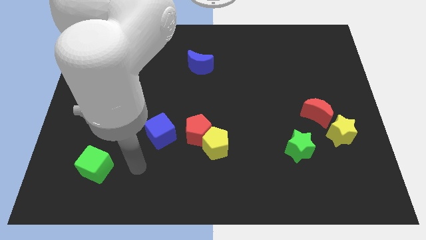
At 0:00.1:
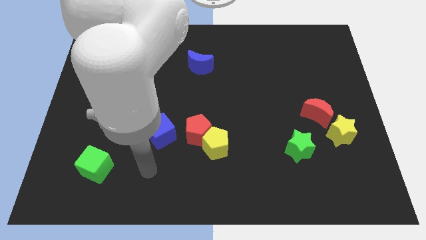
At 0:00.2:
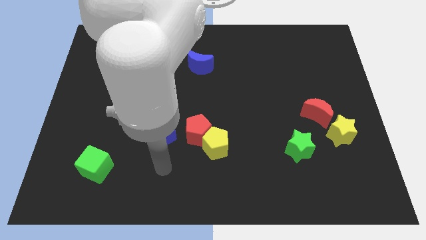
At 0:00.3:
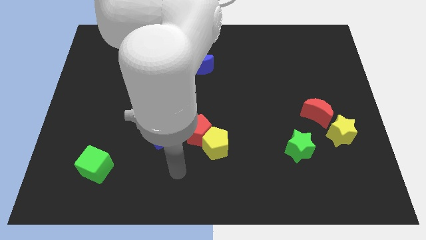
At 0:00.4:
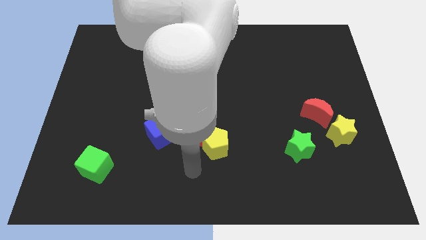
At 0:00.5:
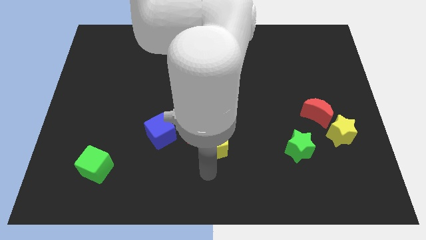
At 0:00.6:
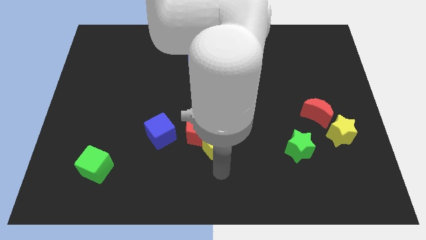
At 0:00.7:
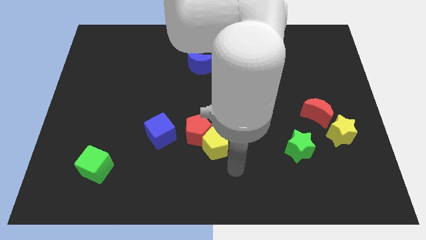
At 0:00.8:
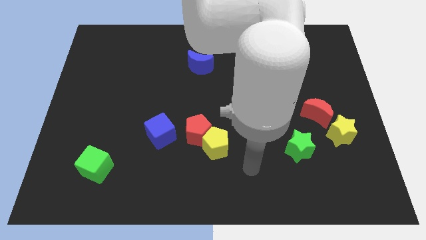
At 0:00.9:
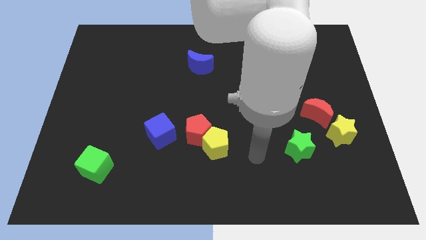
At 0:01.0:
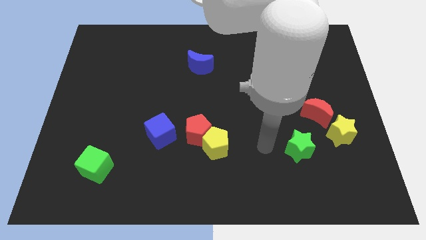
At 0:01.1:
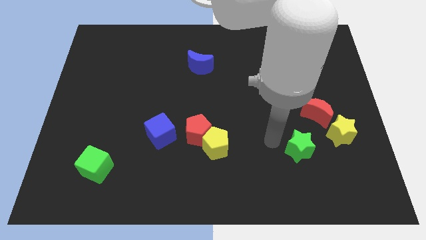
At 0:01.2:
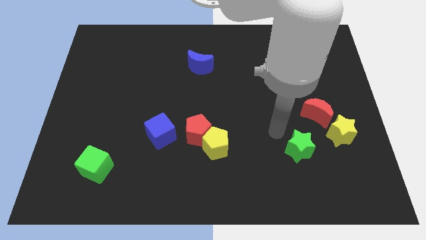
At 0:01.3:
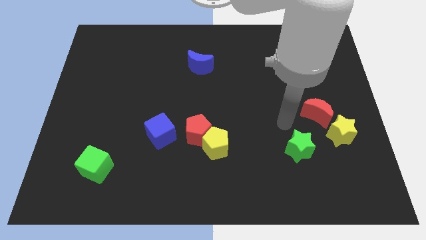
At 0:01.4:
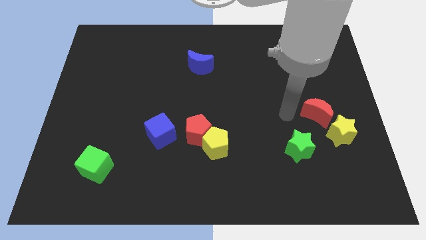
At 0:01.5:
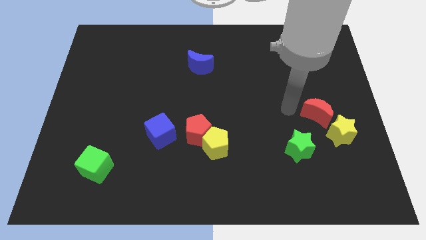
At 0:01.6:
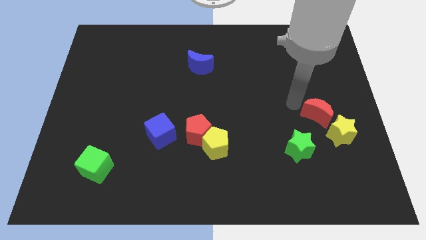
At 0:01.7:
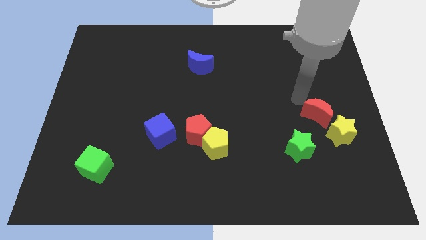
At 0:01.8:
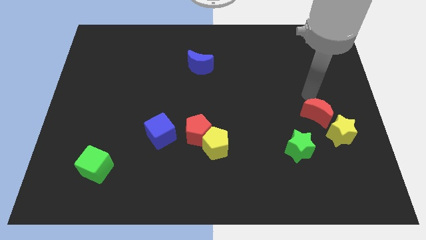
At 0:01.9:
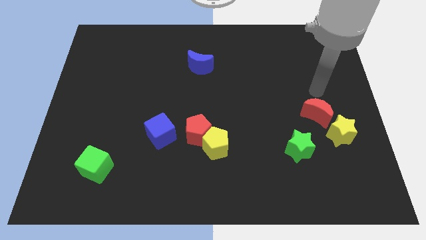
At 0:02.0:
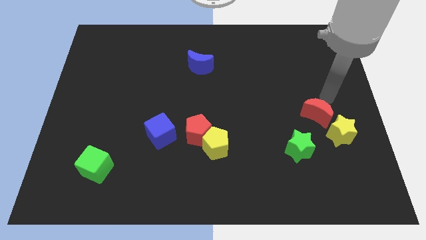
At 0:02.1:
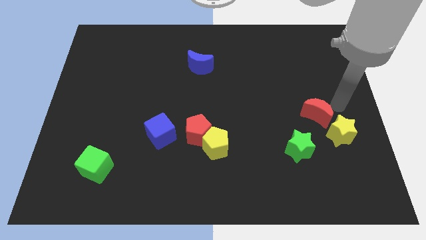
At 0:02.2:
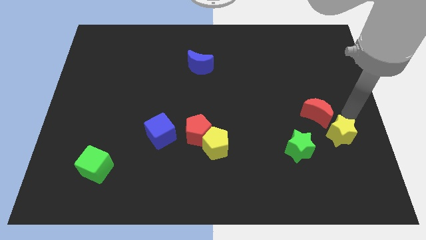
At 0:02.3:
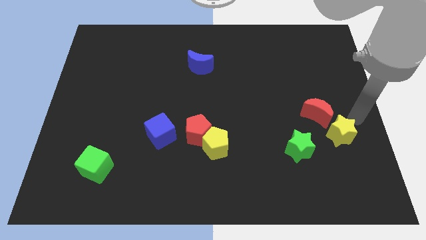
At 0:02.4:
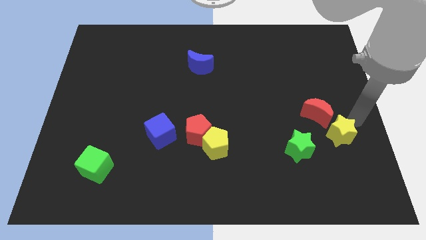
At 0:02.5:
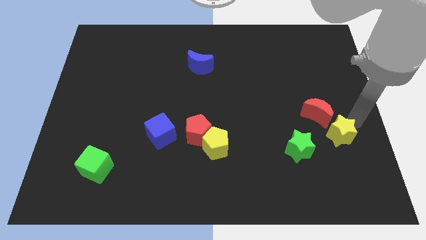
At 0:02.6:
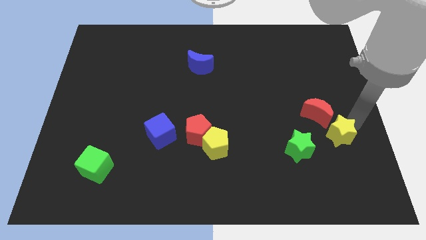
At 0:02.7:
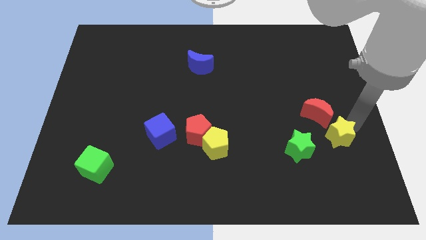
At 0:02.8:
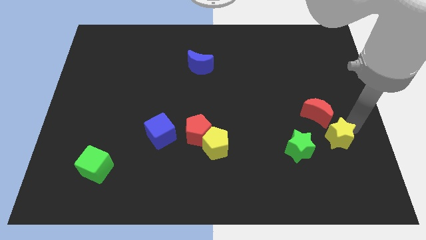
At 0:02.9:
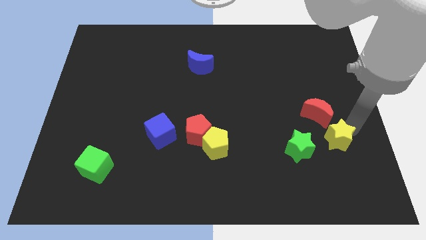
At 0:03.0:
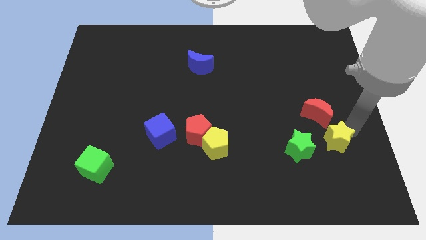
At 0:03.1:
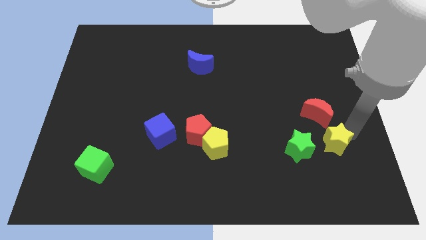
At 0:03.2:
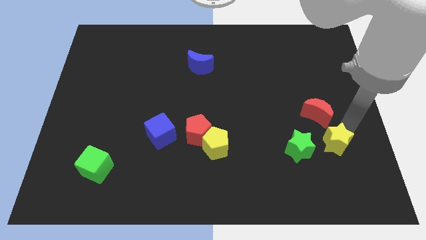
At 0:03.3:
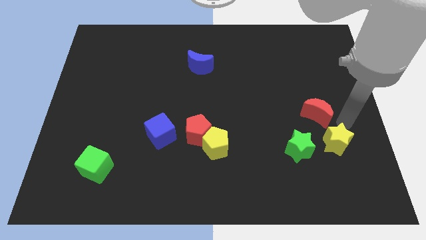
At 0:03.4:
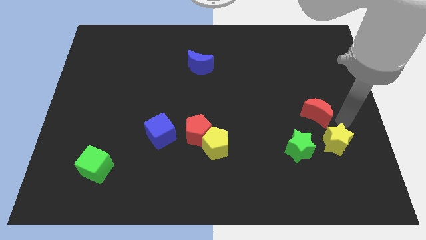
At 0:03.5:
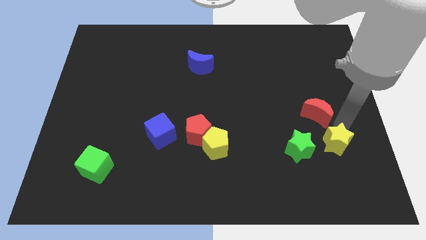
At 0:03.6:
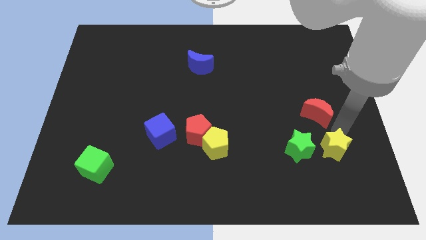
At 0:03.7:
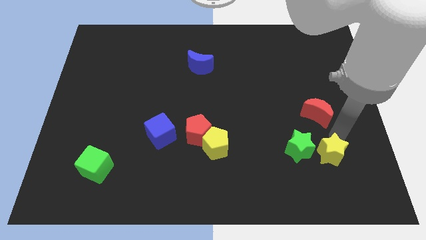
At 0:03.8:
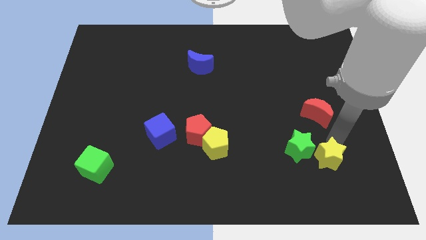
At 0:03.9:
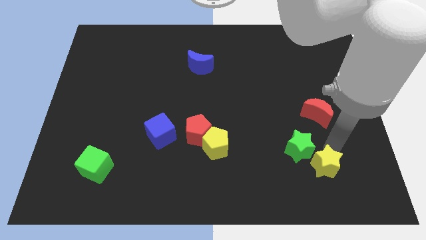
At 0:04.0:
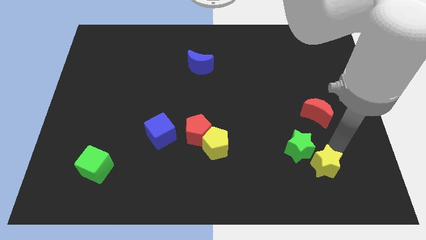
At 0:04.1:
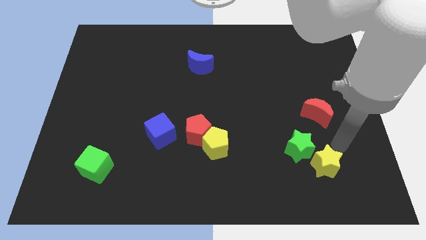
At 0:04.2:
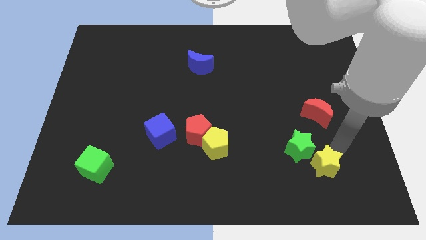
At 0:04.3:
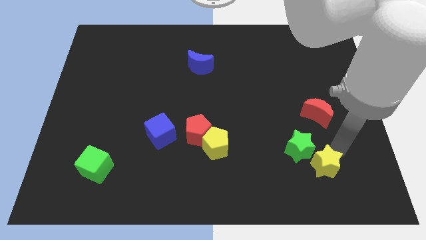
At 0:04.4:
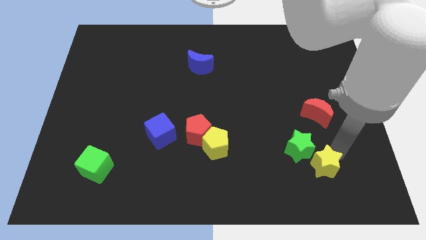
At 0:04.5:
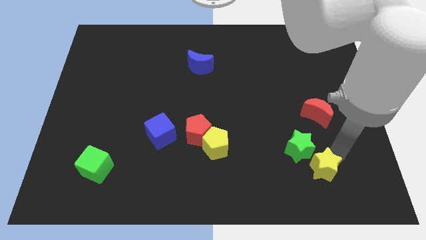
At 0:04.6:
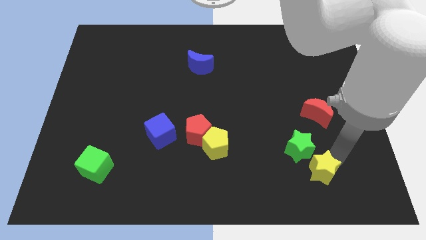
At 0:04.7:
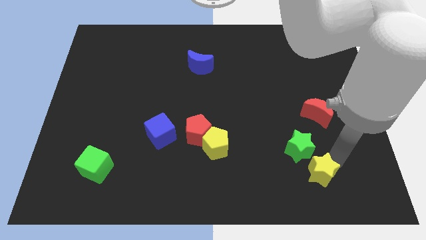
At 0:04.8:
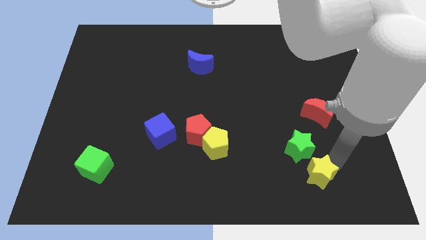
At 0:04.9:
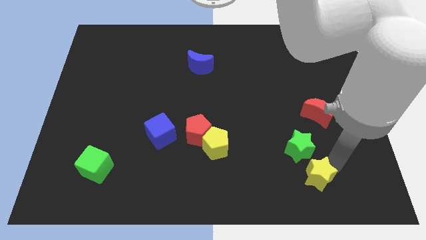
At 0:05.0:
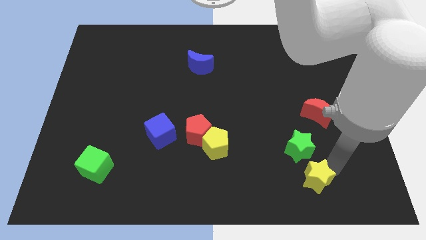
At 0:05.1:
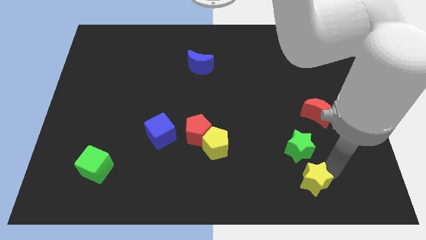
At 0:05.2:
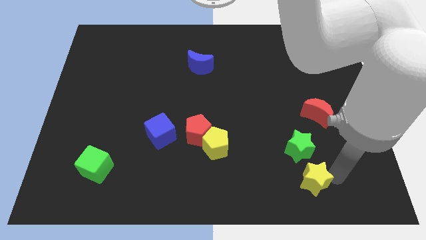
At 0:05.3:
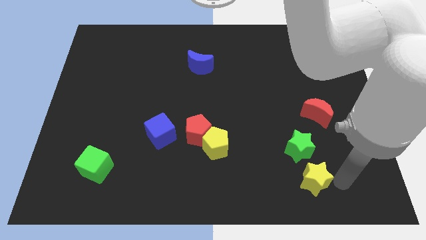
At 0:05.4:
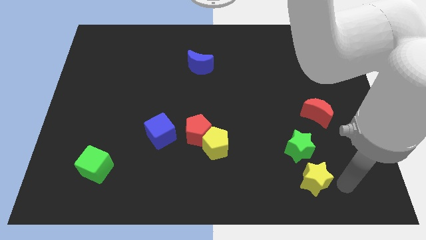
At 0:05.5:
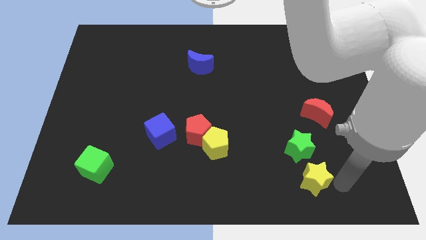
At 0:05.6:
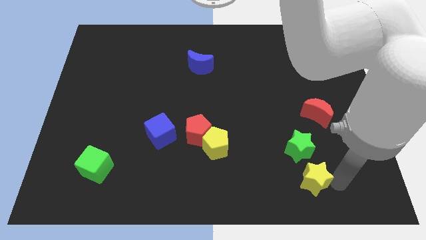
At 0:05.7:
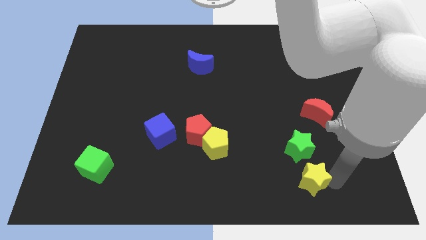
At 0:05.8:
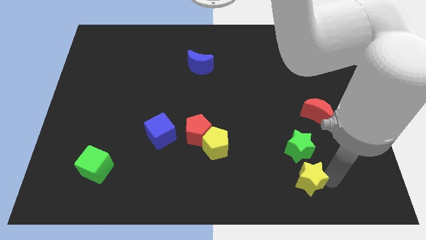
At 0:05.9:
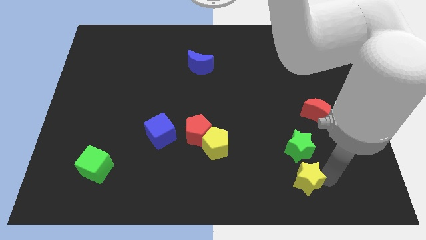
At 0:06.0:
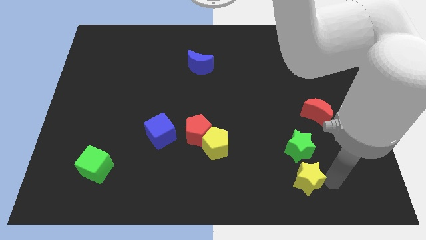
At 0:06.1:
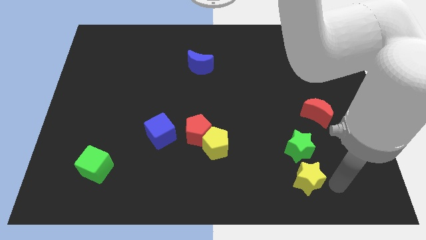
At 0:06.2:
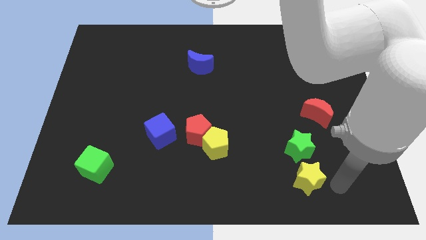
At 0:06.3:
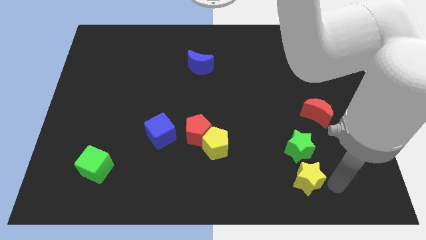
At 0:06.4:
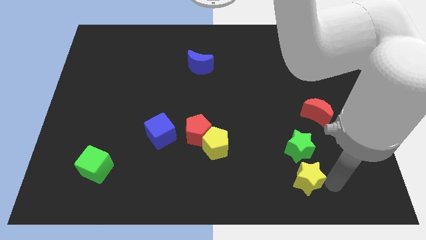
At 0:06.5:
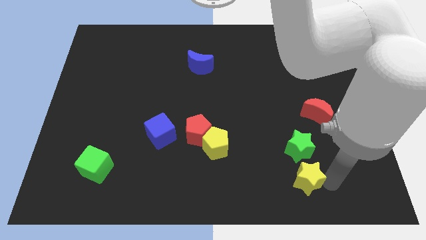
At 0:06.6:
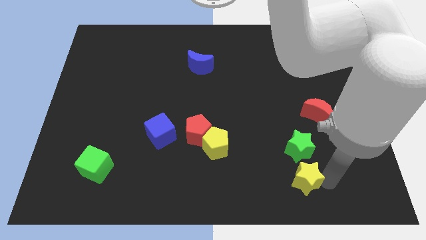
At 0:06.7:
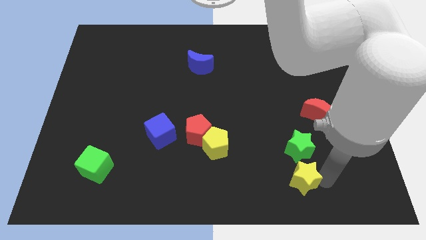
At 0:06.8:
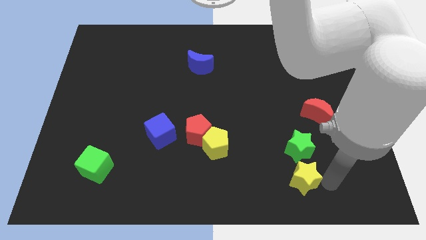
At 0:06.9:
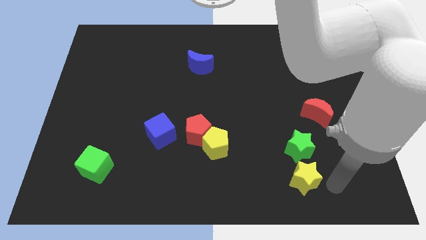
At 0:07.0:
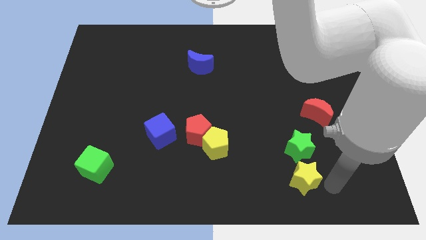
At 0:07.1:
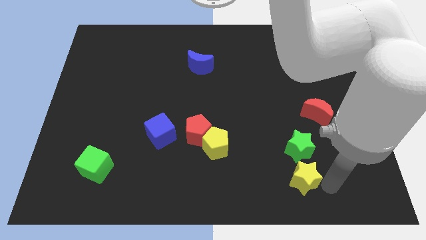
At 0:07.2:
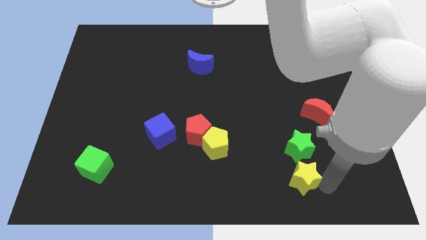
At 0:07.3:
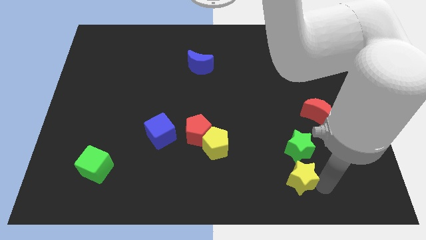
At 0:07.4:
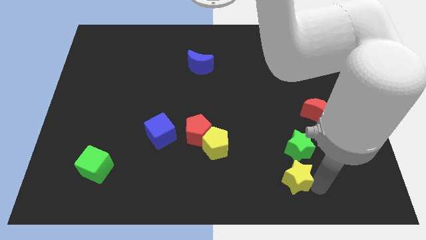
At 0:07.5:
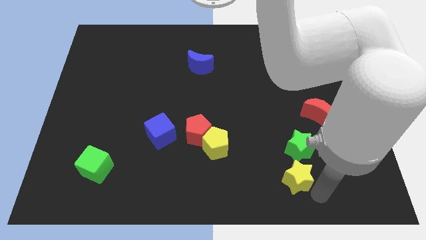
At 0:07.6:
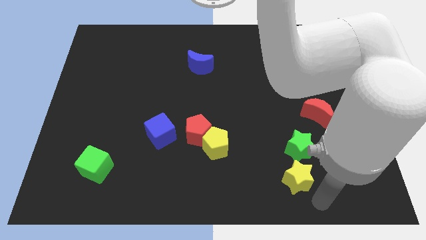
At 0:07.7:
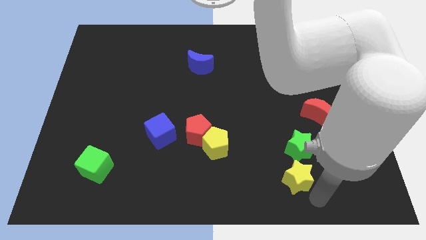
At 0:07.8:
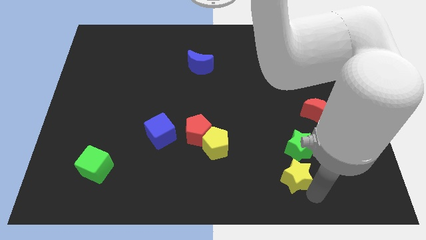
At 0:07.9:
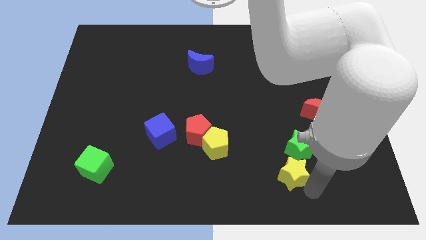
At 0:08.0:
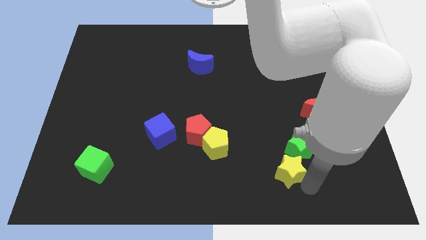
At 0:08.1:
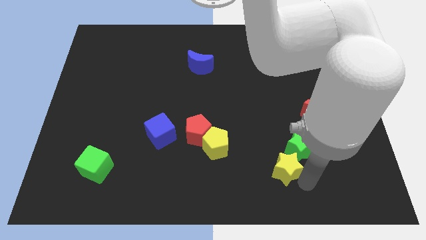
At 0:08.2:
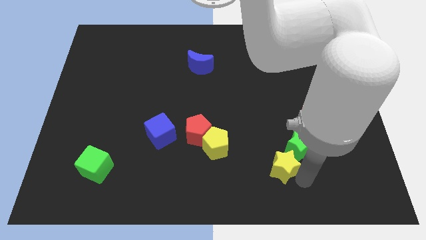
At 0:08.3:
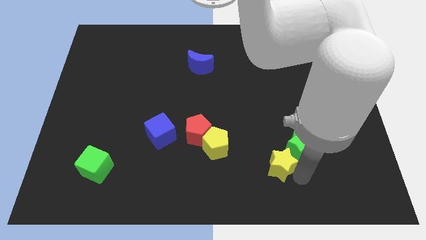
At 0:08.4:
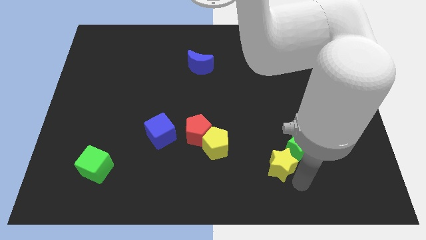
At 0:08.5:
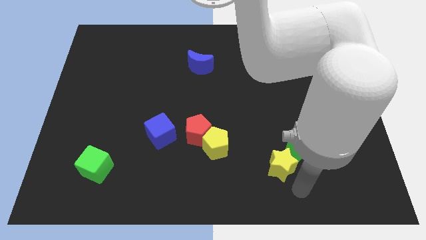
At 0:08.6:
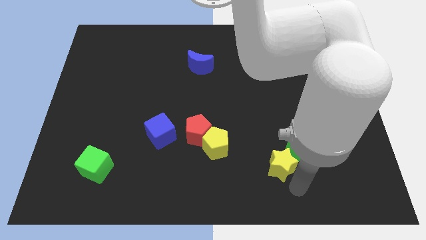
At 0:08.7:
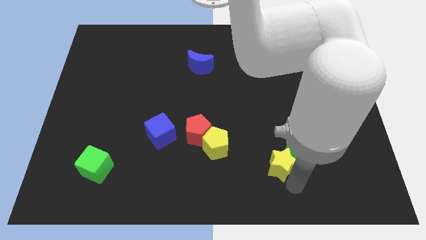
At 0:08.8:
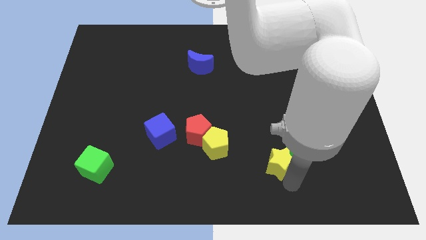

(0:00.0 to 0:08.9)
slide the yellow star right of the yellow pentagon
